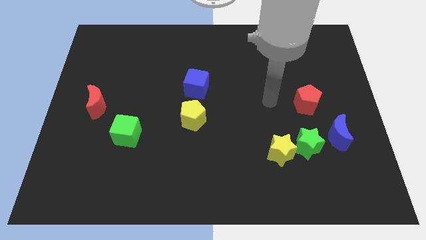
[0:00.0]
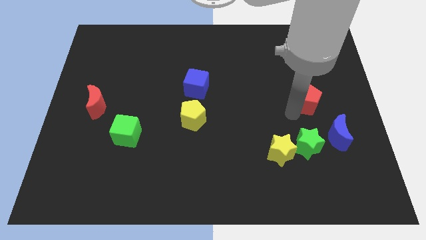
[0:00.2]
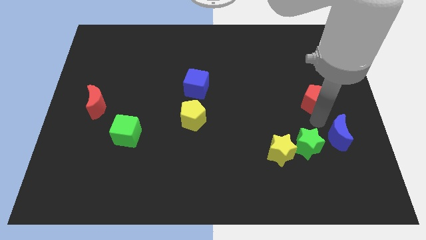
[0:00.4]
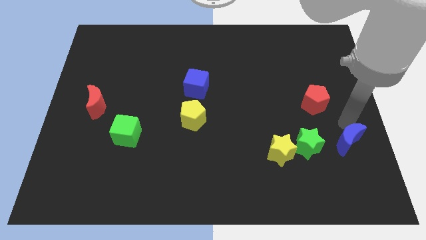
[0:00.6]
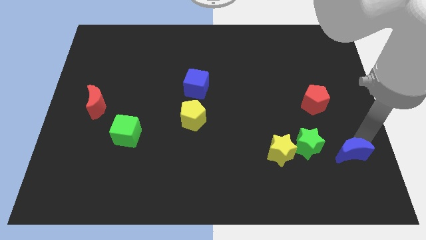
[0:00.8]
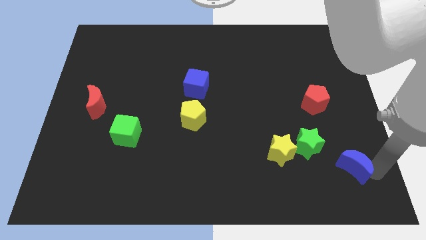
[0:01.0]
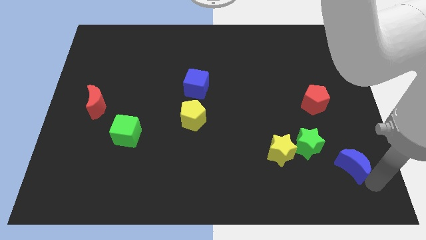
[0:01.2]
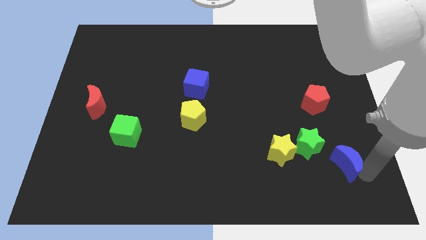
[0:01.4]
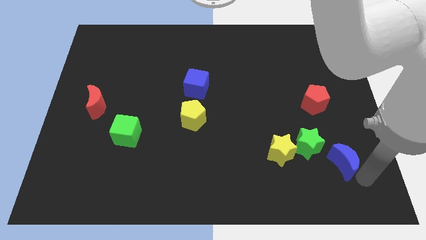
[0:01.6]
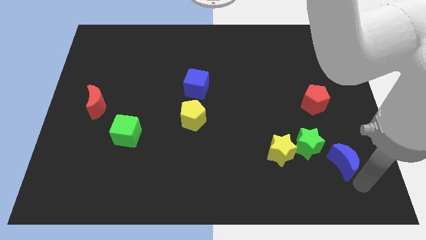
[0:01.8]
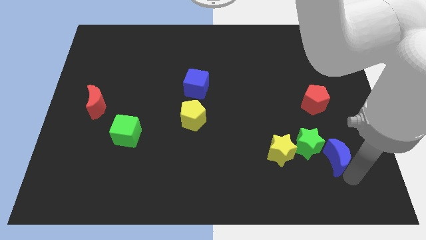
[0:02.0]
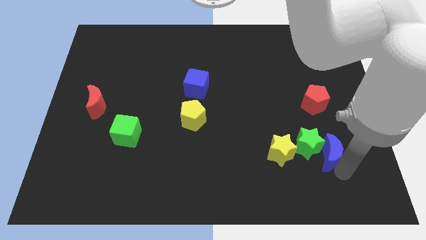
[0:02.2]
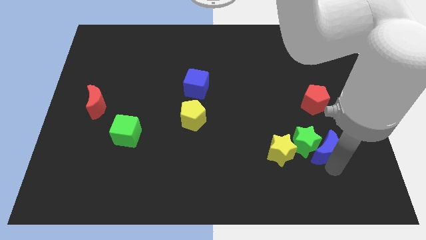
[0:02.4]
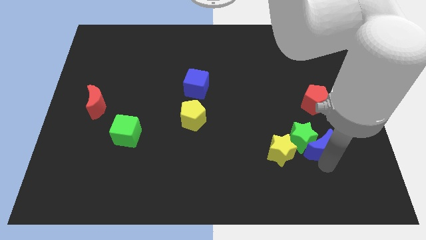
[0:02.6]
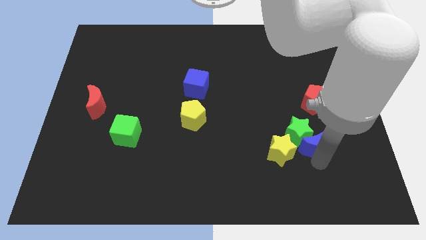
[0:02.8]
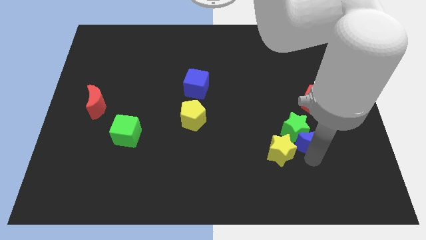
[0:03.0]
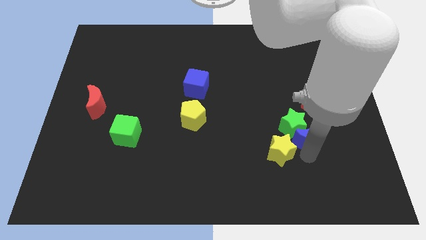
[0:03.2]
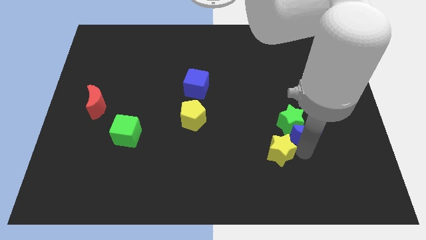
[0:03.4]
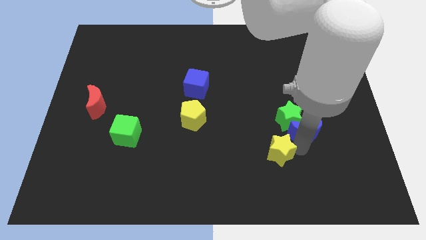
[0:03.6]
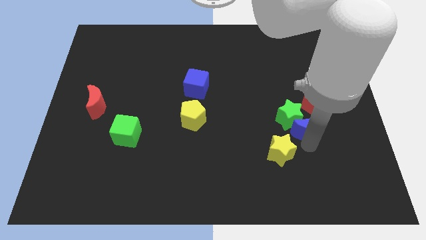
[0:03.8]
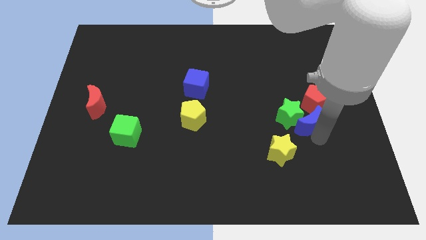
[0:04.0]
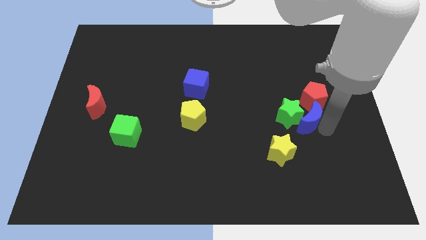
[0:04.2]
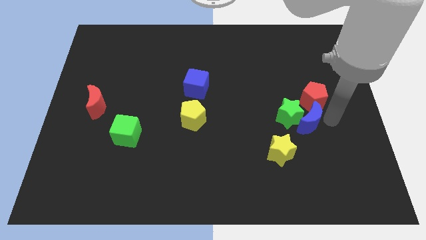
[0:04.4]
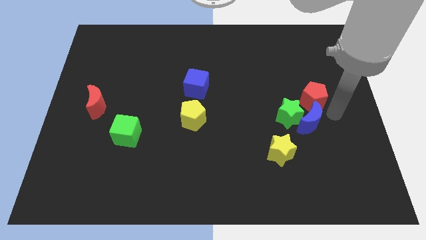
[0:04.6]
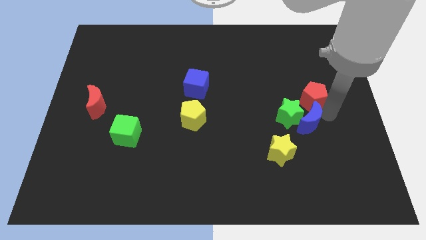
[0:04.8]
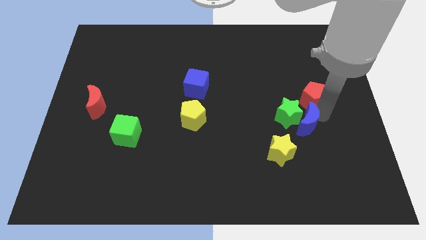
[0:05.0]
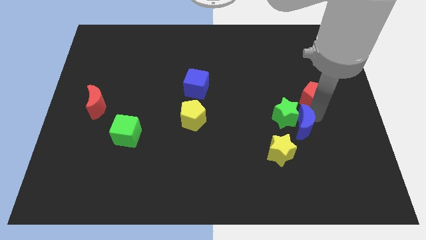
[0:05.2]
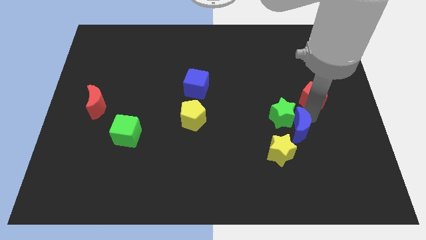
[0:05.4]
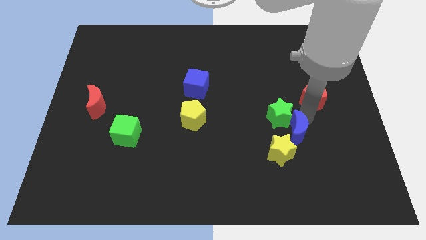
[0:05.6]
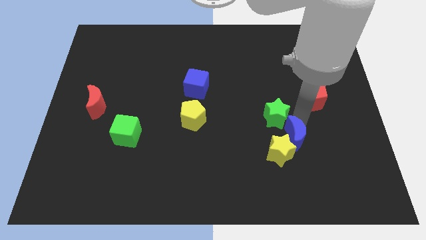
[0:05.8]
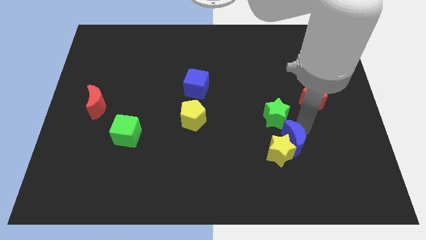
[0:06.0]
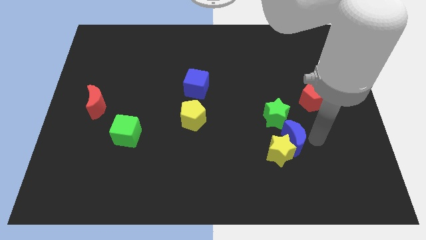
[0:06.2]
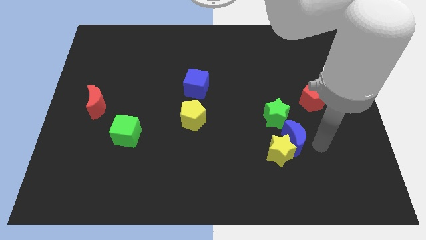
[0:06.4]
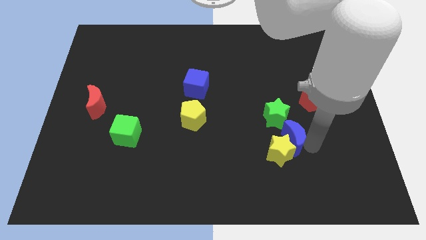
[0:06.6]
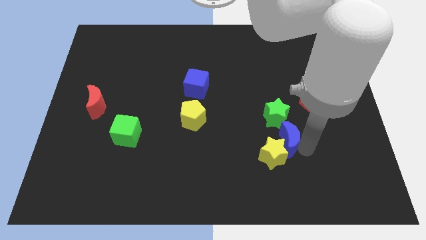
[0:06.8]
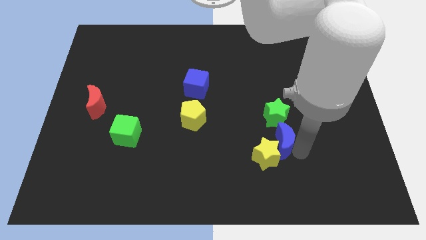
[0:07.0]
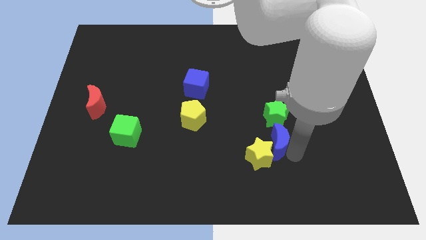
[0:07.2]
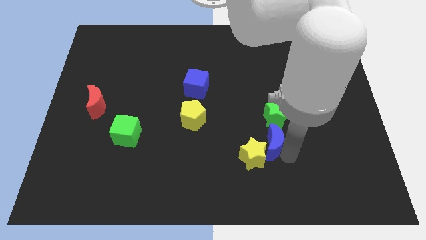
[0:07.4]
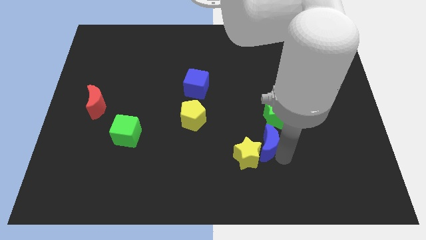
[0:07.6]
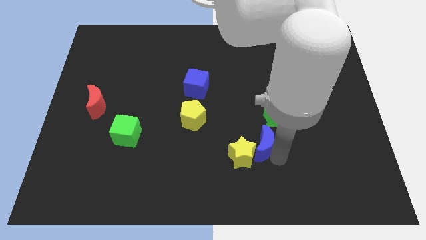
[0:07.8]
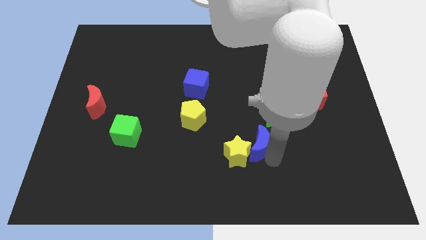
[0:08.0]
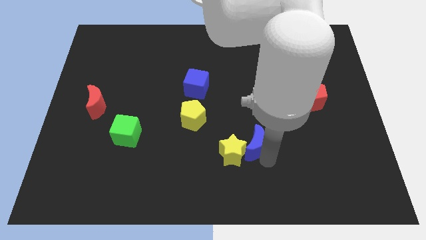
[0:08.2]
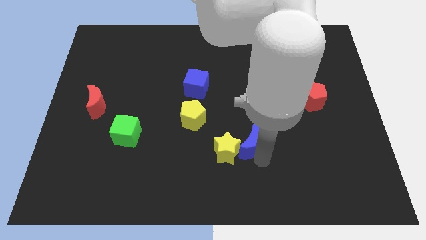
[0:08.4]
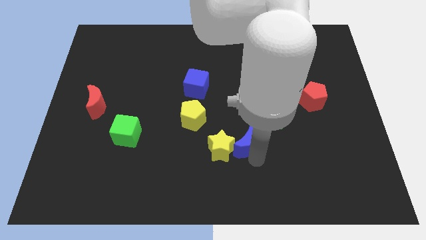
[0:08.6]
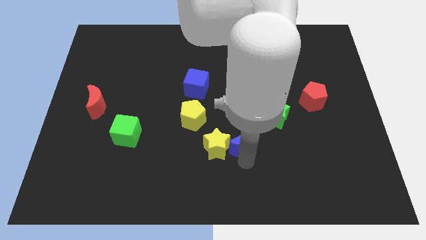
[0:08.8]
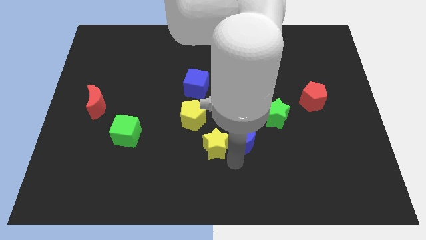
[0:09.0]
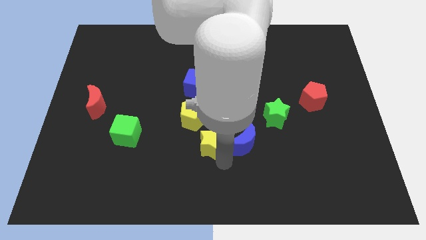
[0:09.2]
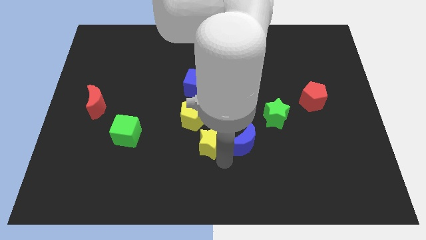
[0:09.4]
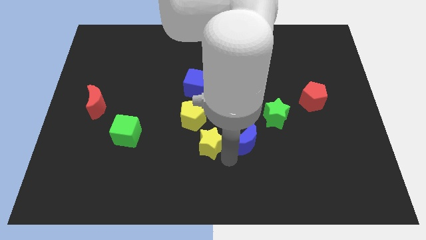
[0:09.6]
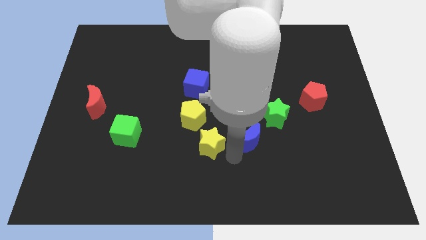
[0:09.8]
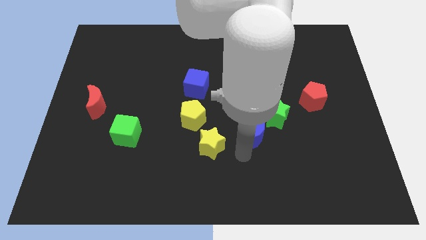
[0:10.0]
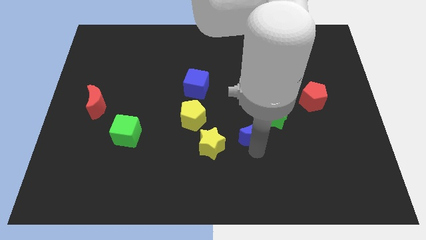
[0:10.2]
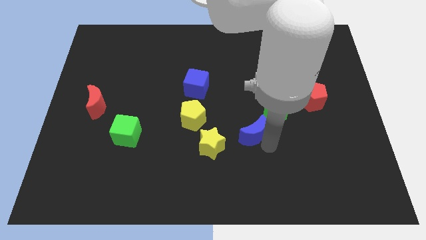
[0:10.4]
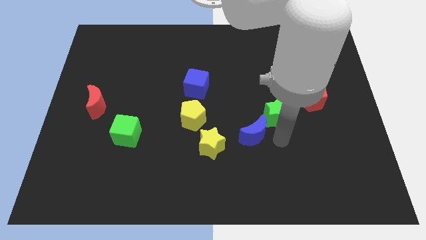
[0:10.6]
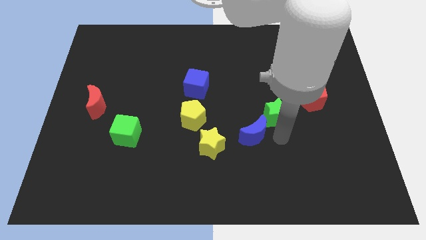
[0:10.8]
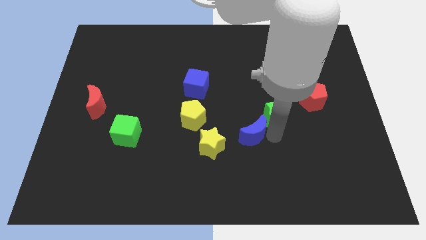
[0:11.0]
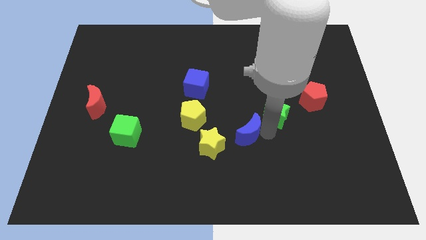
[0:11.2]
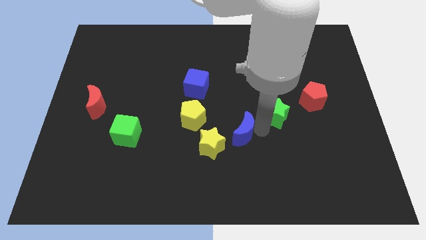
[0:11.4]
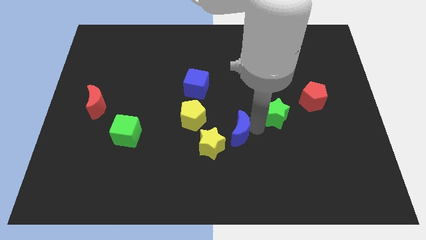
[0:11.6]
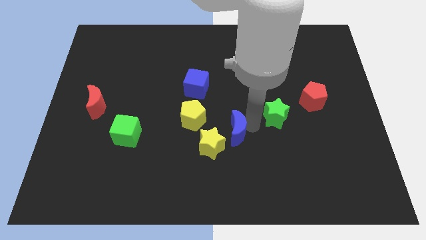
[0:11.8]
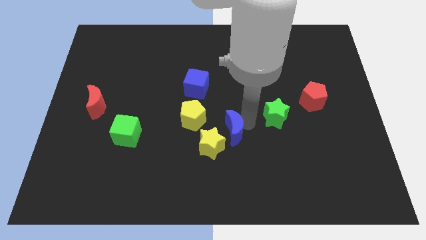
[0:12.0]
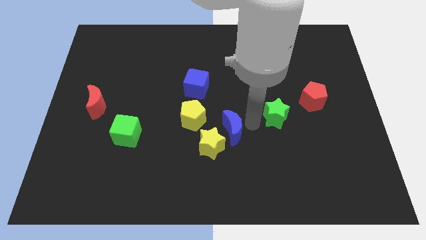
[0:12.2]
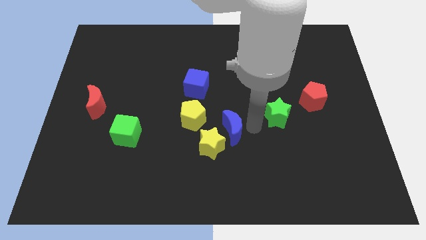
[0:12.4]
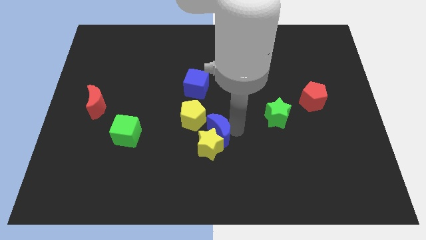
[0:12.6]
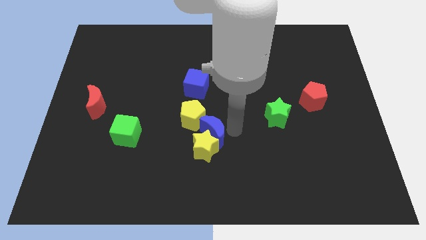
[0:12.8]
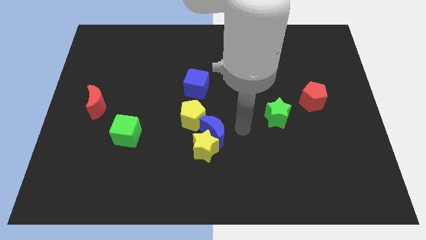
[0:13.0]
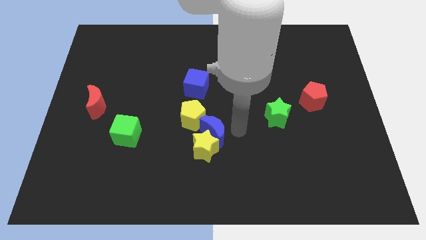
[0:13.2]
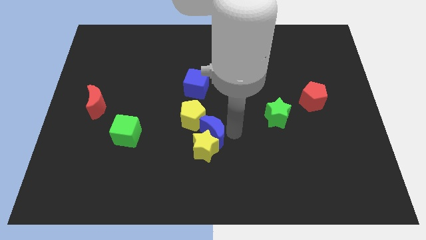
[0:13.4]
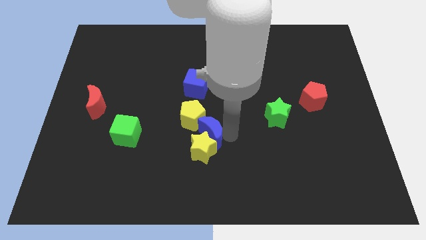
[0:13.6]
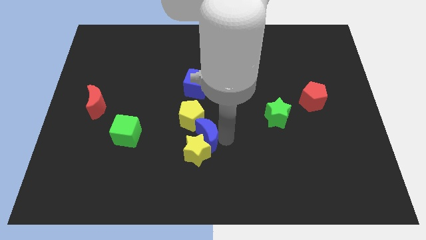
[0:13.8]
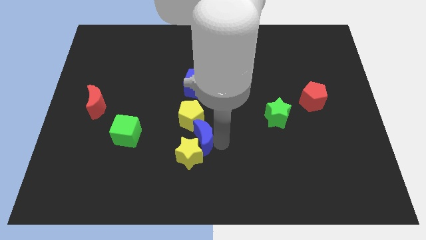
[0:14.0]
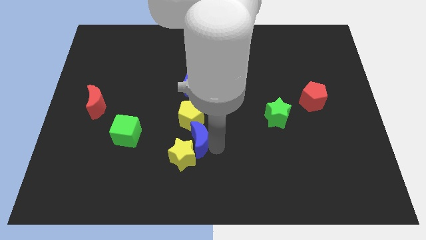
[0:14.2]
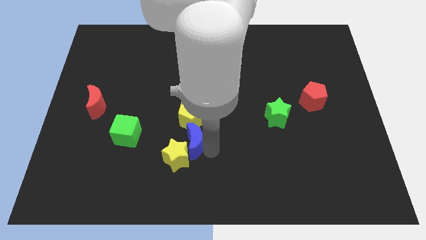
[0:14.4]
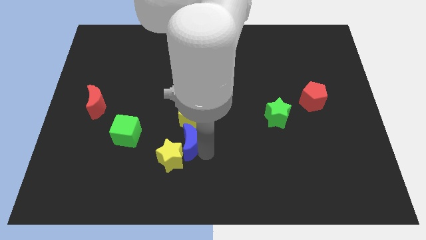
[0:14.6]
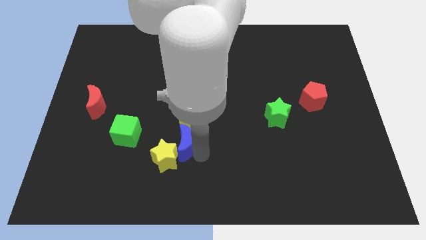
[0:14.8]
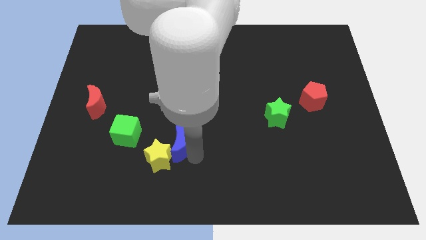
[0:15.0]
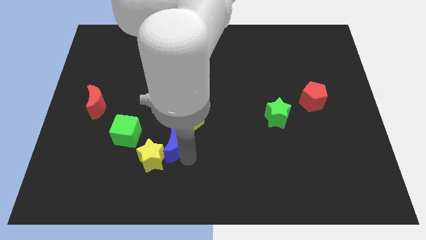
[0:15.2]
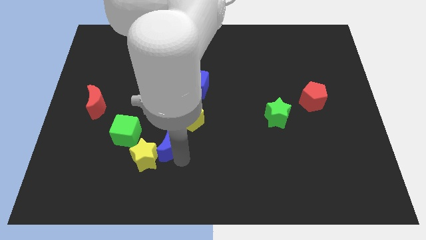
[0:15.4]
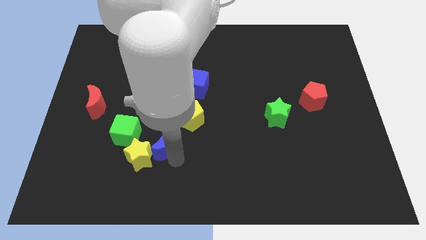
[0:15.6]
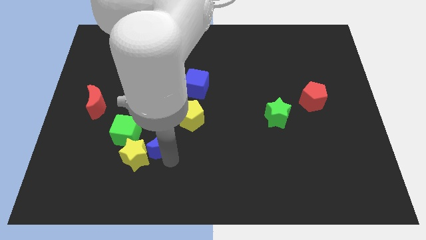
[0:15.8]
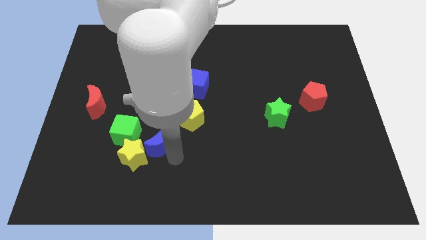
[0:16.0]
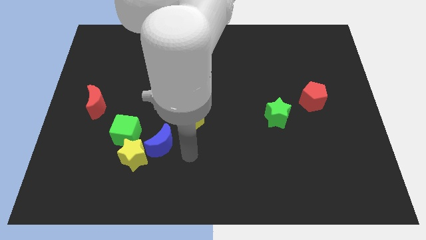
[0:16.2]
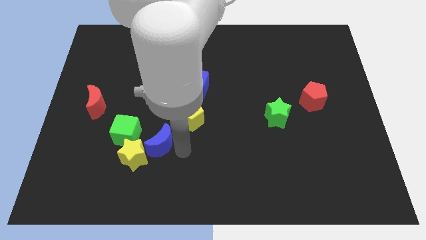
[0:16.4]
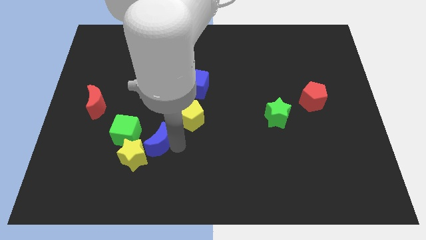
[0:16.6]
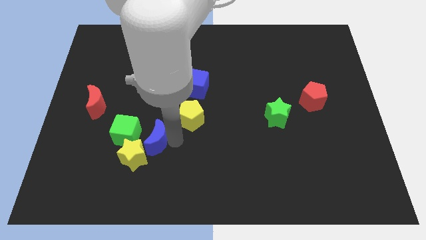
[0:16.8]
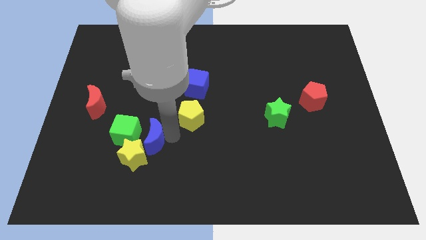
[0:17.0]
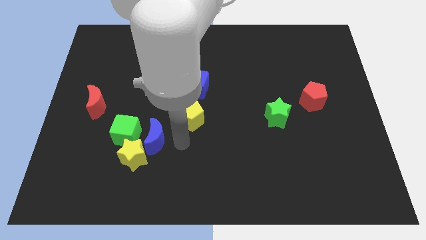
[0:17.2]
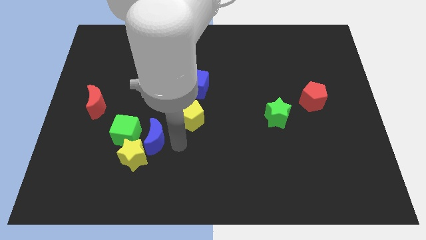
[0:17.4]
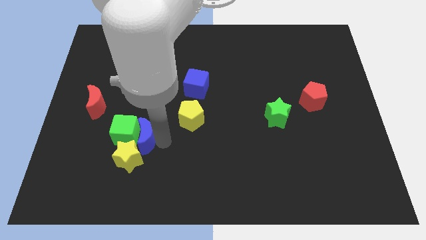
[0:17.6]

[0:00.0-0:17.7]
slide the blue moon to the green cube
